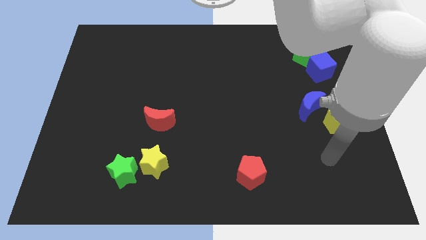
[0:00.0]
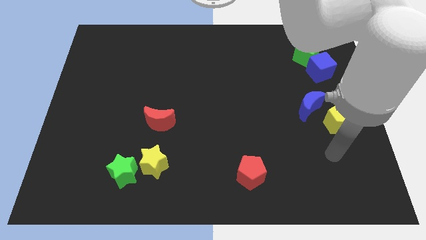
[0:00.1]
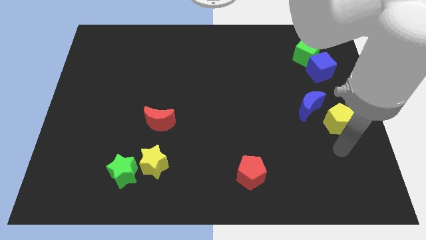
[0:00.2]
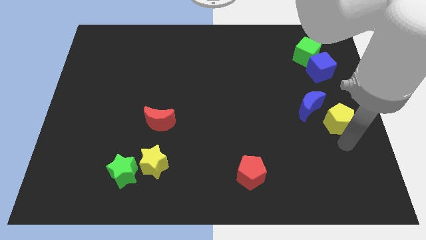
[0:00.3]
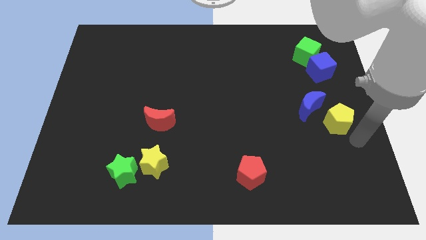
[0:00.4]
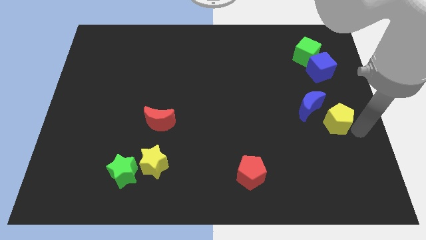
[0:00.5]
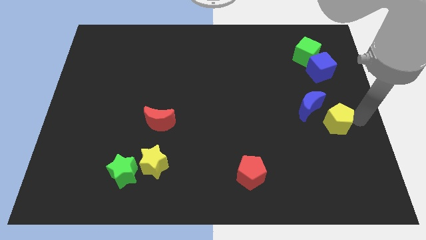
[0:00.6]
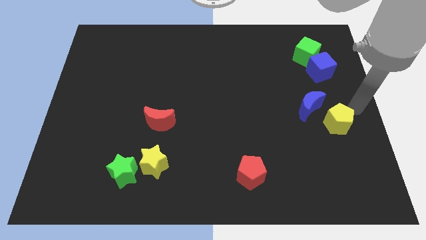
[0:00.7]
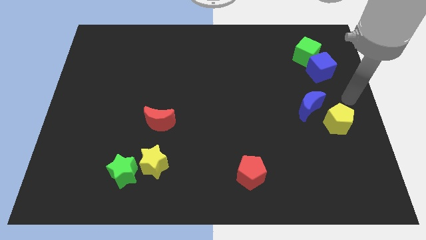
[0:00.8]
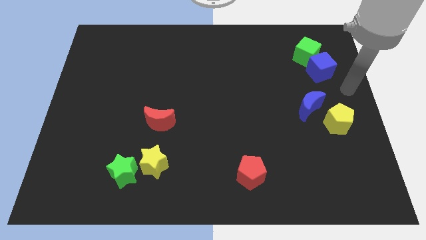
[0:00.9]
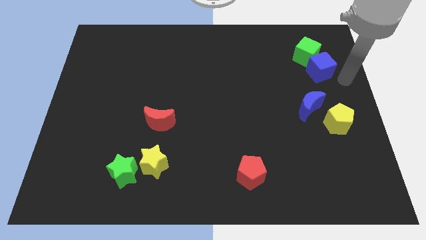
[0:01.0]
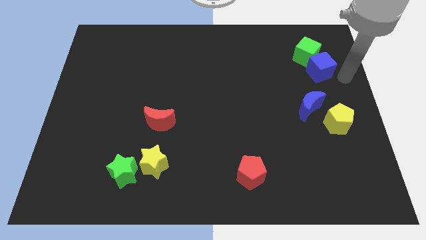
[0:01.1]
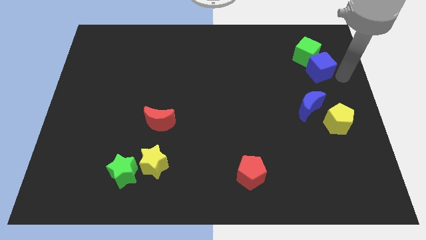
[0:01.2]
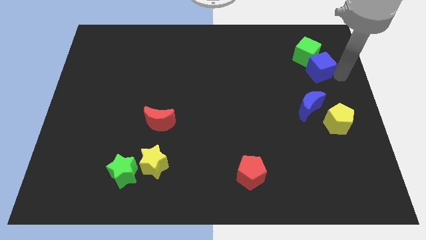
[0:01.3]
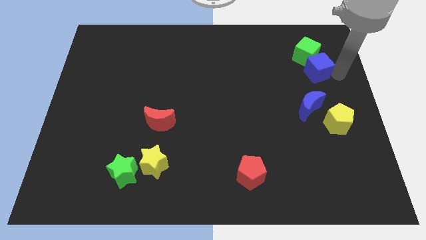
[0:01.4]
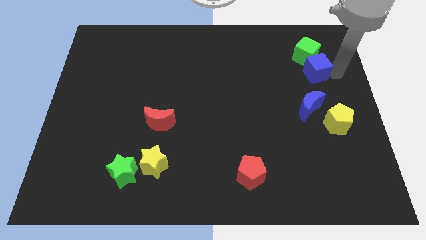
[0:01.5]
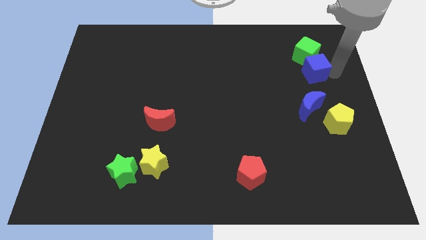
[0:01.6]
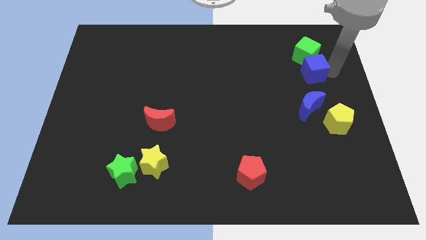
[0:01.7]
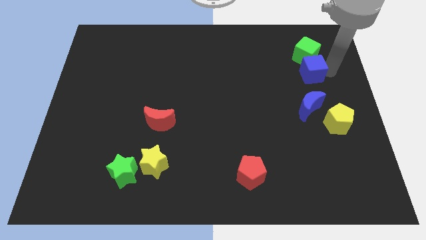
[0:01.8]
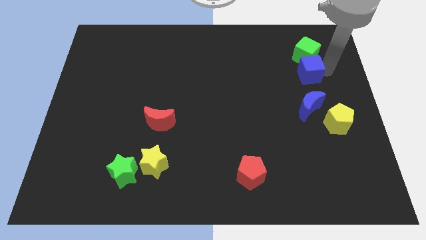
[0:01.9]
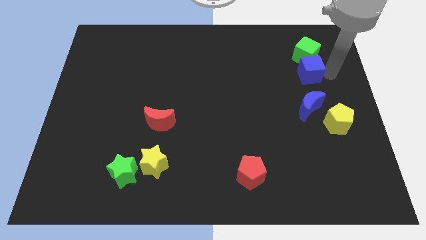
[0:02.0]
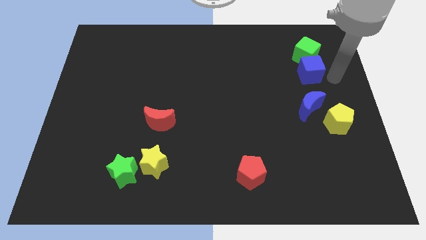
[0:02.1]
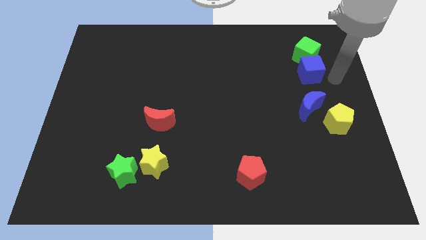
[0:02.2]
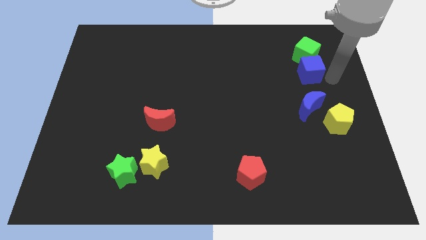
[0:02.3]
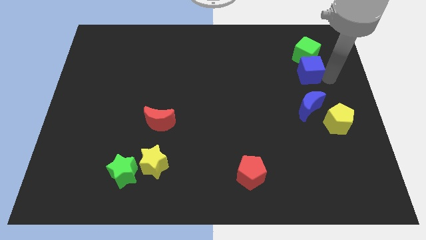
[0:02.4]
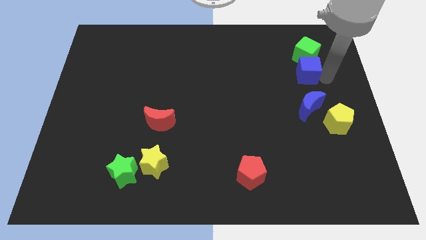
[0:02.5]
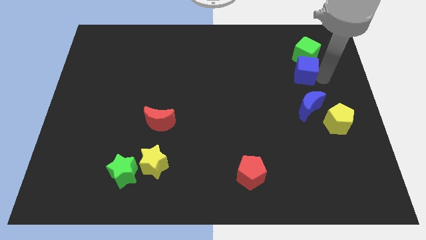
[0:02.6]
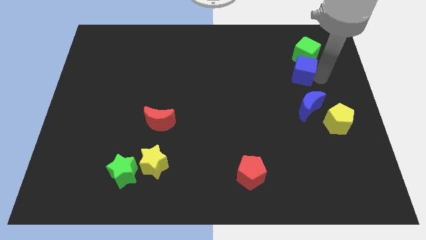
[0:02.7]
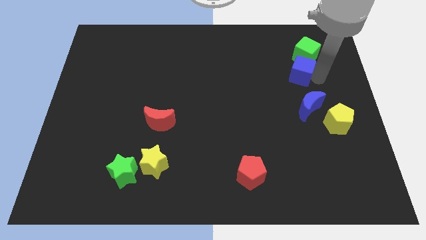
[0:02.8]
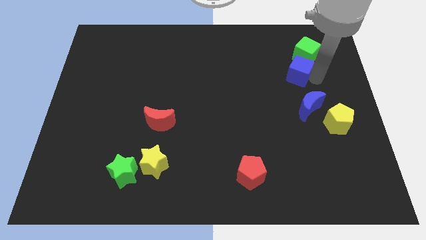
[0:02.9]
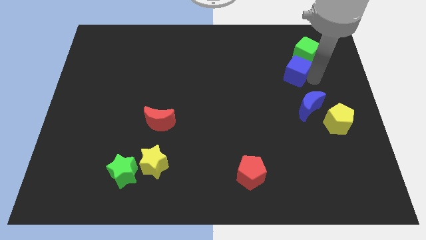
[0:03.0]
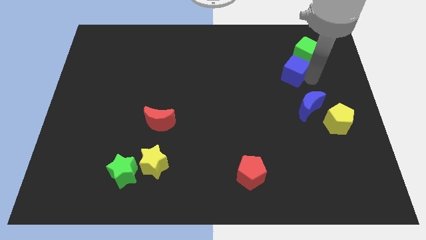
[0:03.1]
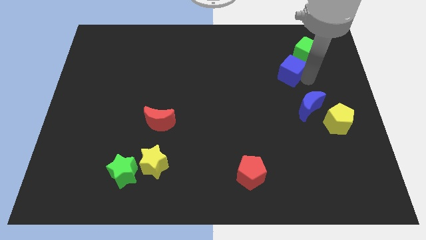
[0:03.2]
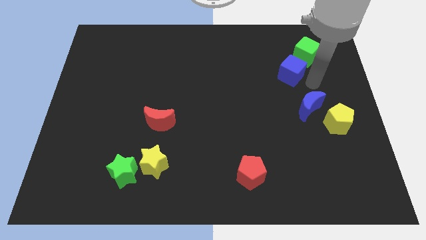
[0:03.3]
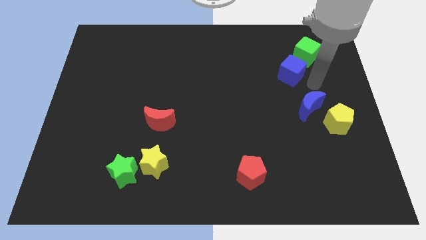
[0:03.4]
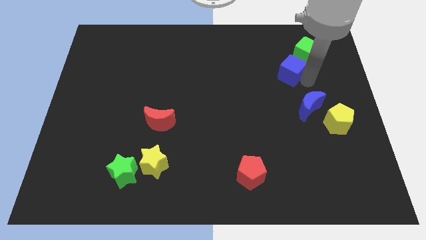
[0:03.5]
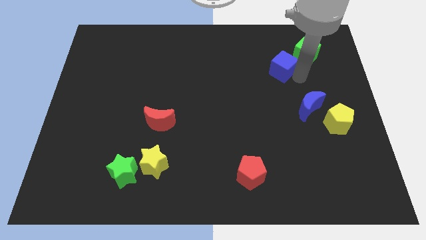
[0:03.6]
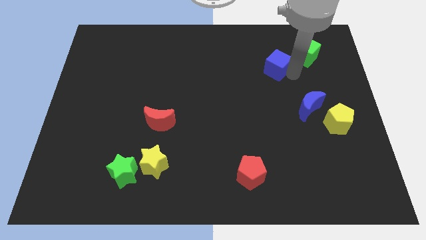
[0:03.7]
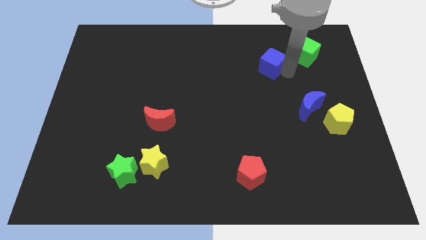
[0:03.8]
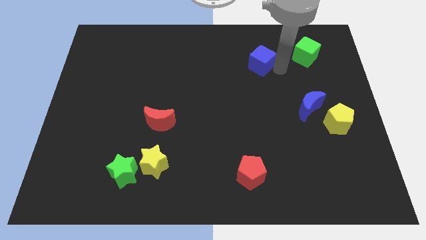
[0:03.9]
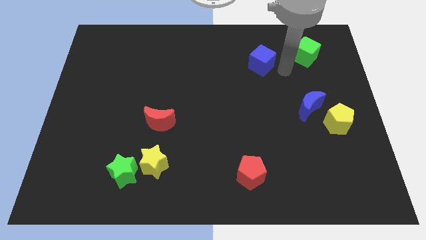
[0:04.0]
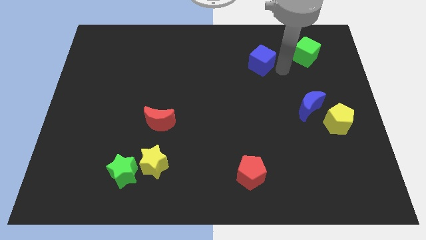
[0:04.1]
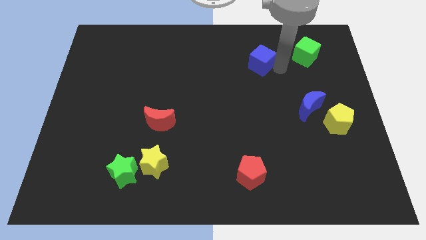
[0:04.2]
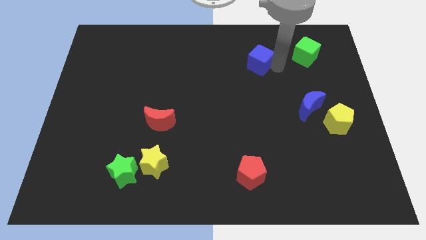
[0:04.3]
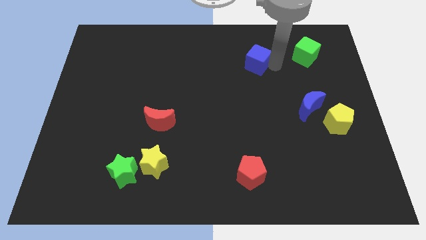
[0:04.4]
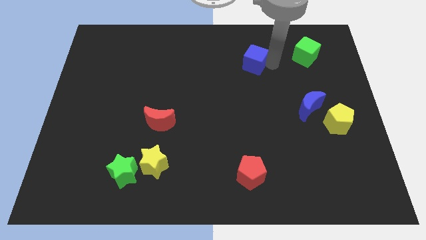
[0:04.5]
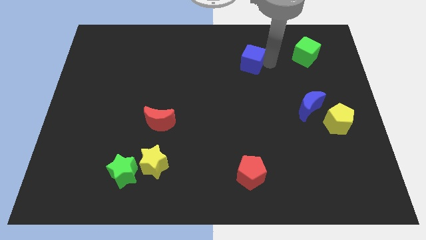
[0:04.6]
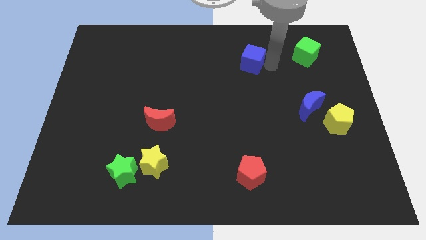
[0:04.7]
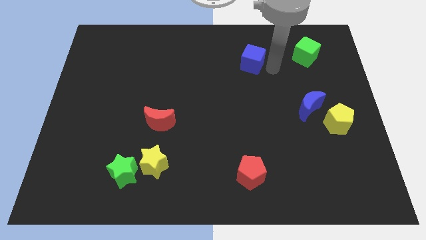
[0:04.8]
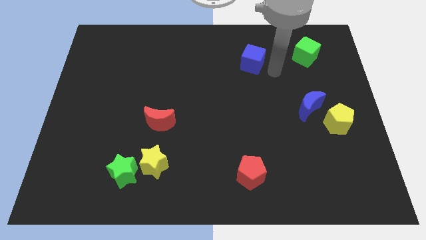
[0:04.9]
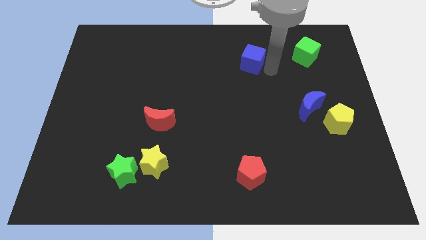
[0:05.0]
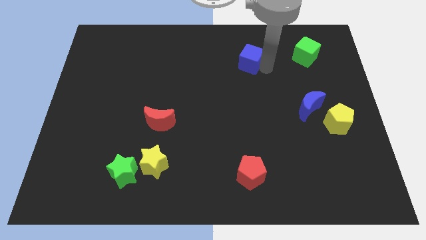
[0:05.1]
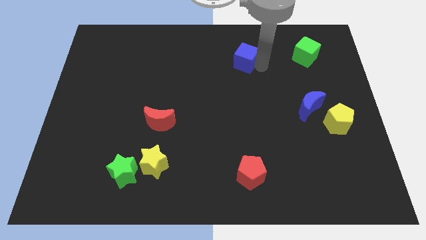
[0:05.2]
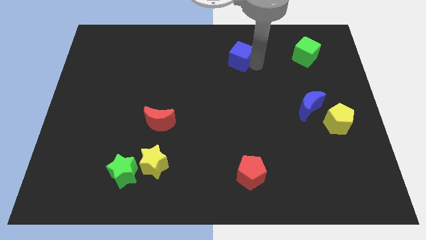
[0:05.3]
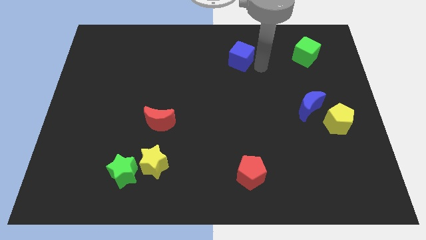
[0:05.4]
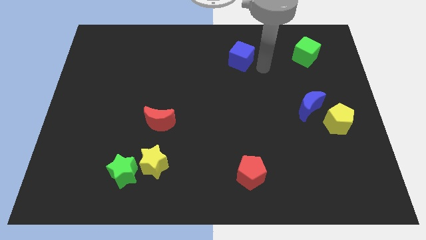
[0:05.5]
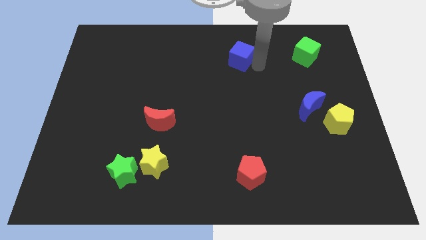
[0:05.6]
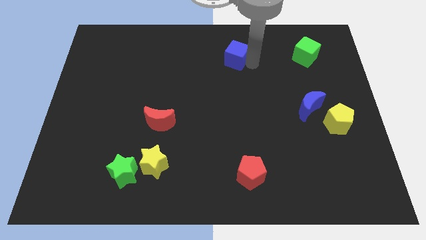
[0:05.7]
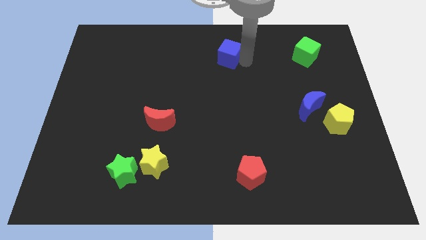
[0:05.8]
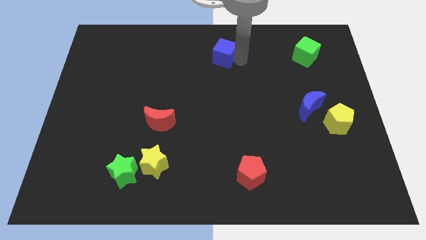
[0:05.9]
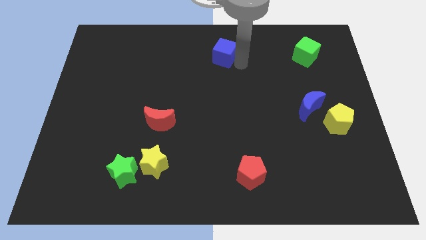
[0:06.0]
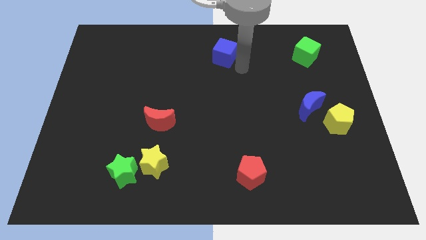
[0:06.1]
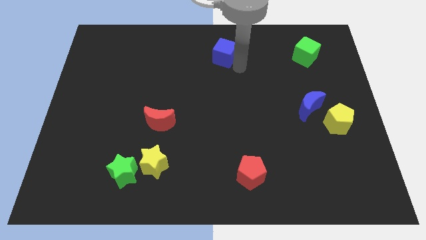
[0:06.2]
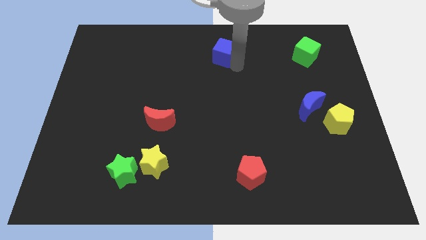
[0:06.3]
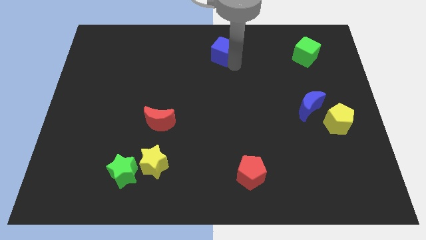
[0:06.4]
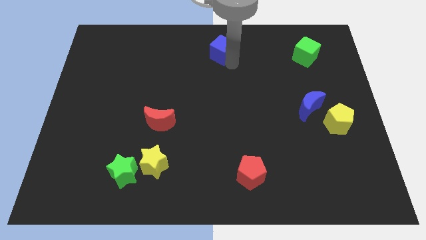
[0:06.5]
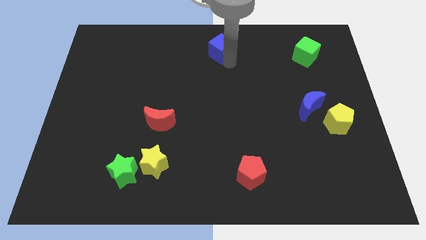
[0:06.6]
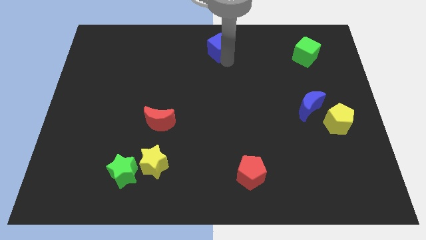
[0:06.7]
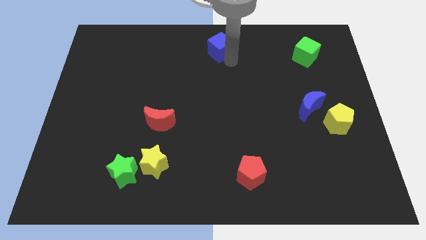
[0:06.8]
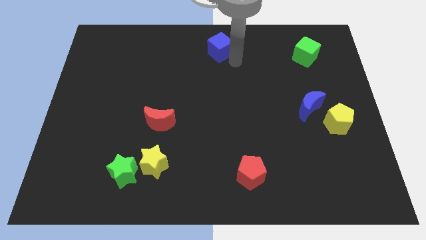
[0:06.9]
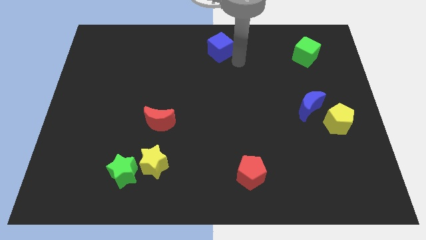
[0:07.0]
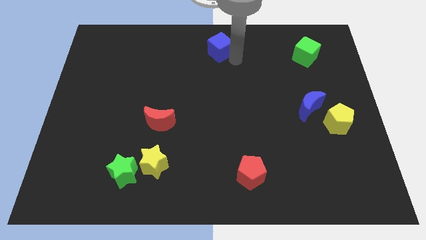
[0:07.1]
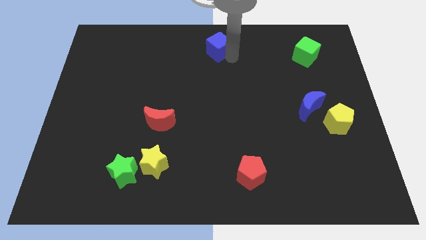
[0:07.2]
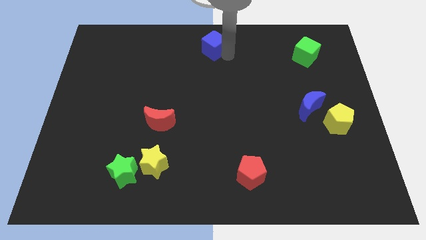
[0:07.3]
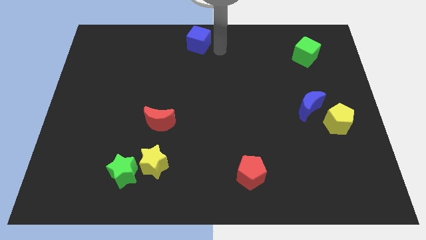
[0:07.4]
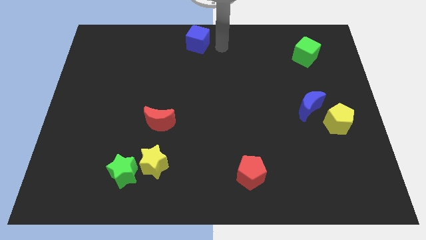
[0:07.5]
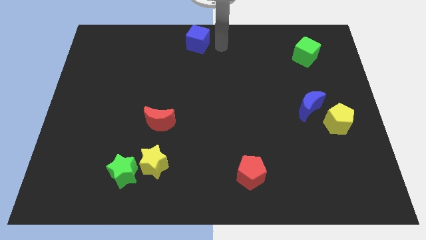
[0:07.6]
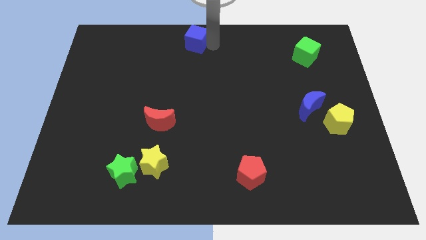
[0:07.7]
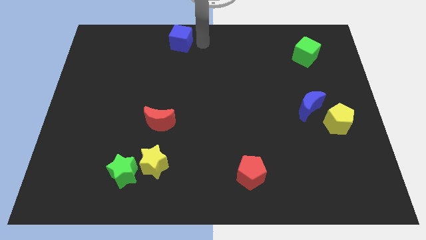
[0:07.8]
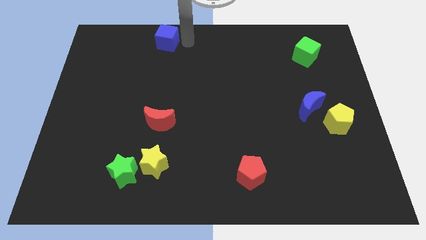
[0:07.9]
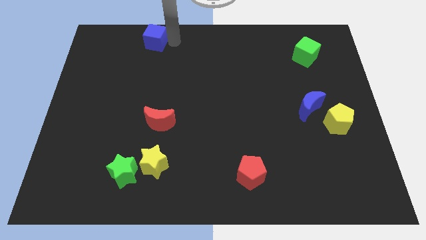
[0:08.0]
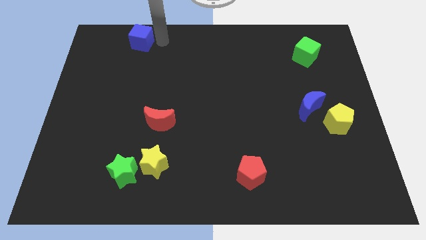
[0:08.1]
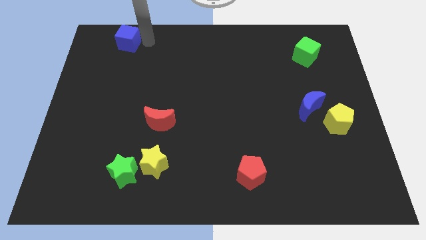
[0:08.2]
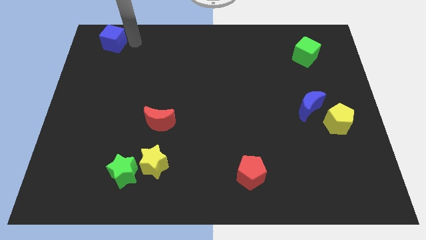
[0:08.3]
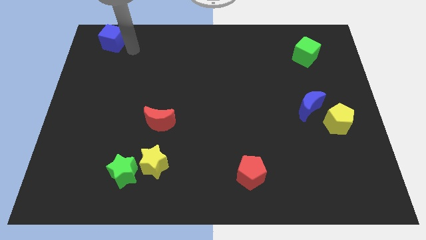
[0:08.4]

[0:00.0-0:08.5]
put the blue cube to the upper left corner
